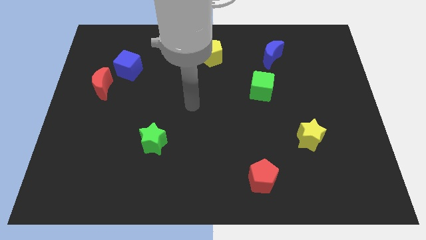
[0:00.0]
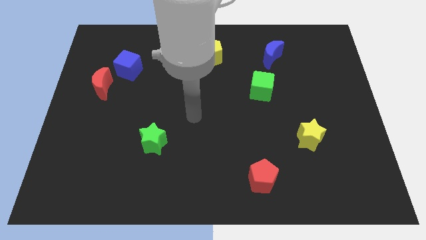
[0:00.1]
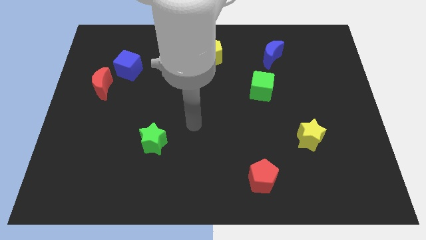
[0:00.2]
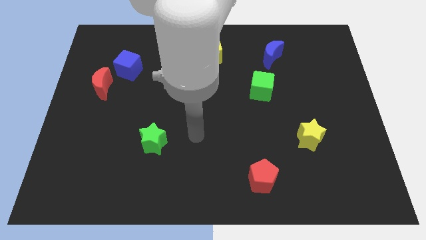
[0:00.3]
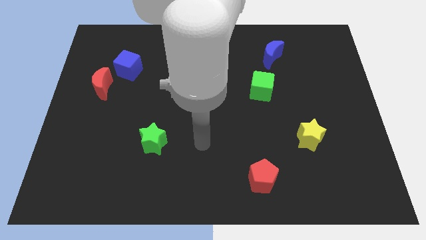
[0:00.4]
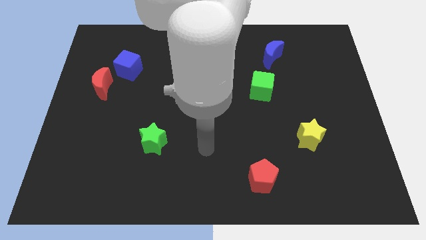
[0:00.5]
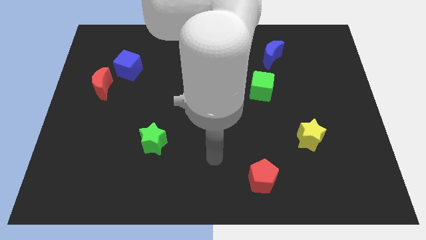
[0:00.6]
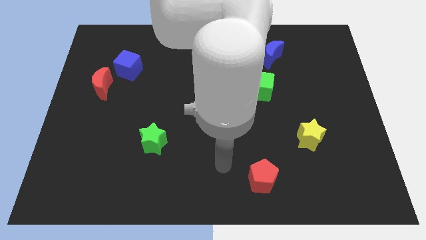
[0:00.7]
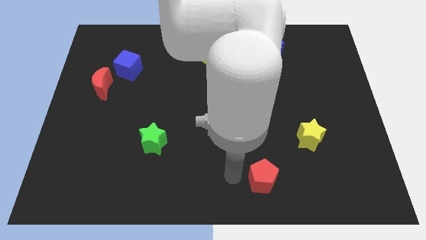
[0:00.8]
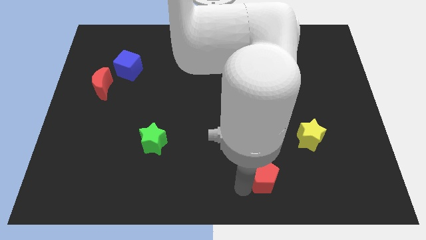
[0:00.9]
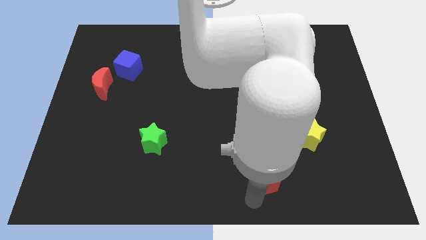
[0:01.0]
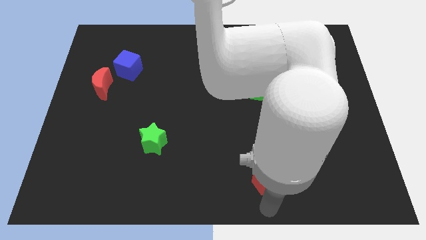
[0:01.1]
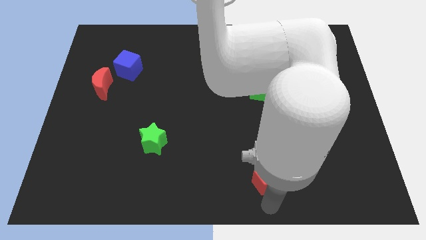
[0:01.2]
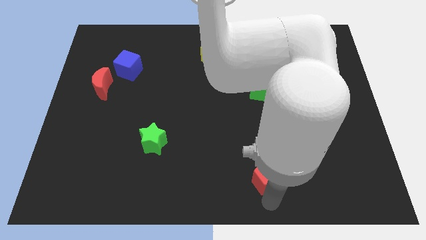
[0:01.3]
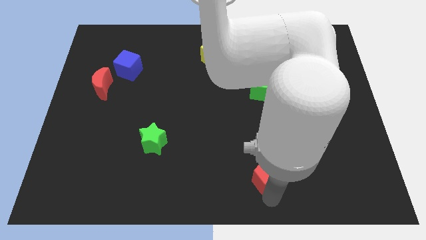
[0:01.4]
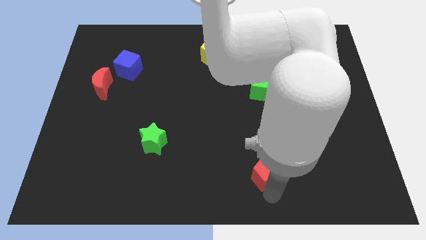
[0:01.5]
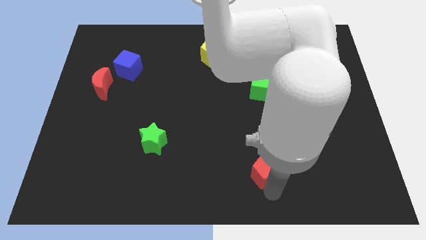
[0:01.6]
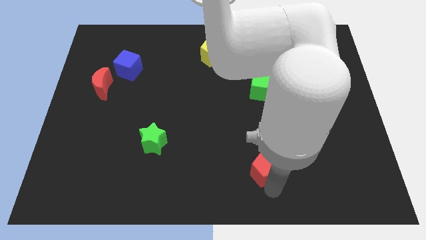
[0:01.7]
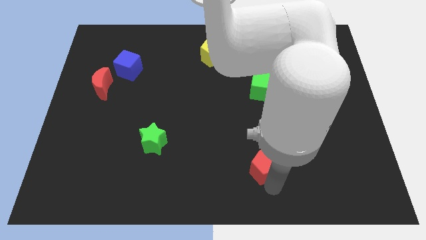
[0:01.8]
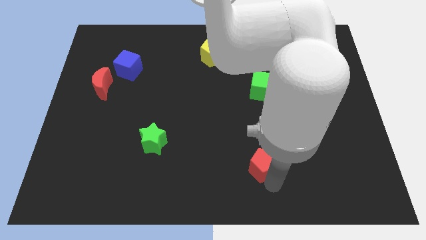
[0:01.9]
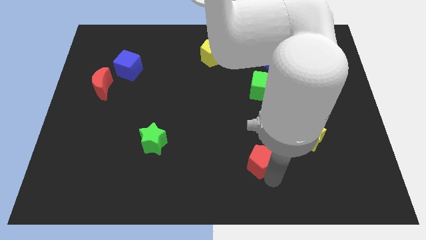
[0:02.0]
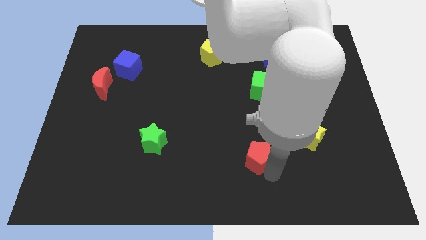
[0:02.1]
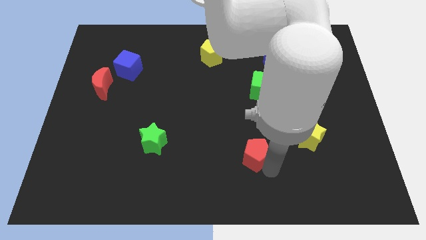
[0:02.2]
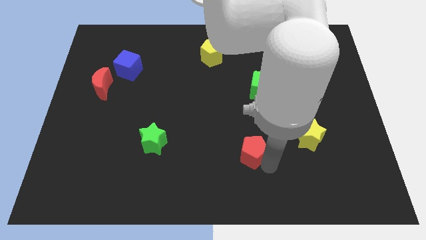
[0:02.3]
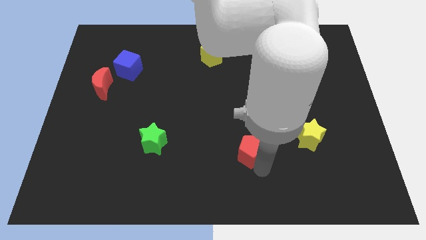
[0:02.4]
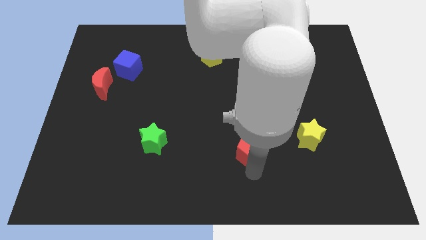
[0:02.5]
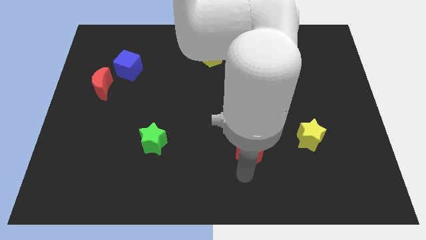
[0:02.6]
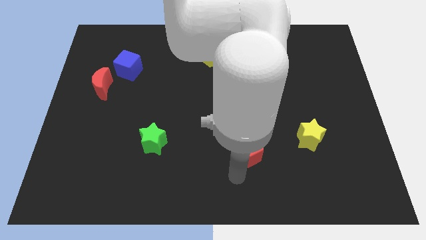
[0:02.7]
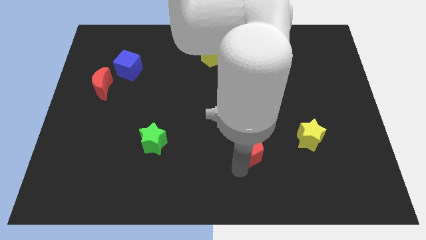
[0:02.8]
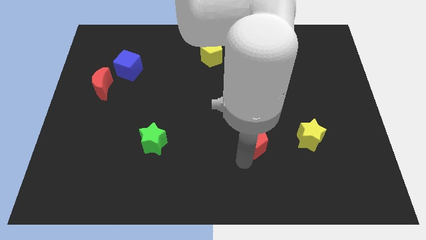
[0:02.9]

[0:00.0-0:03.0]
move the red pentagon a little bit up

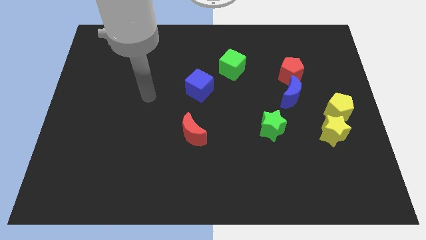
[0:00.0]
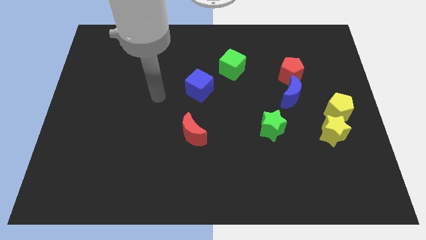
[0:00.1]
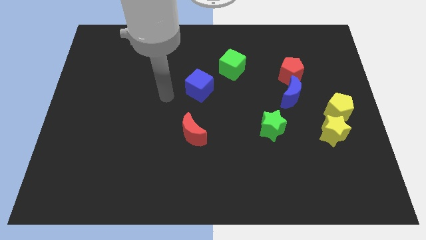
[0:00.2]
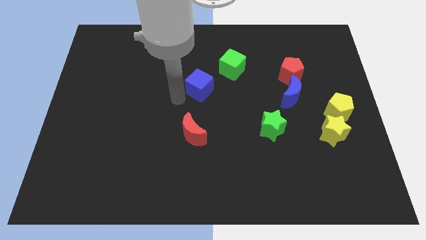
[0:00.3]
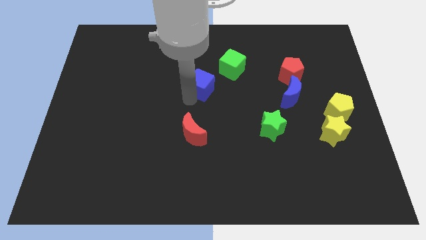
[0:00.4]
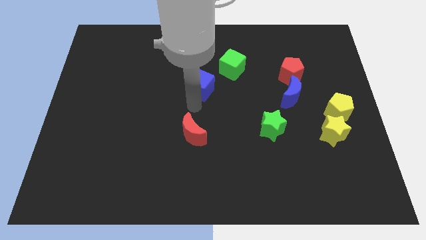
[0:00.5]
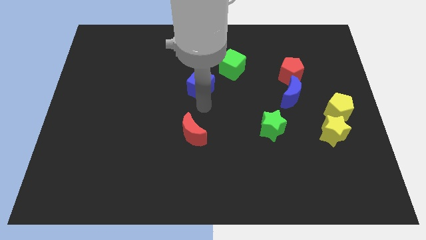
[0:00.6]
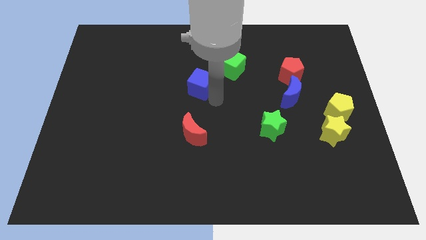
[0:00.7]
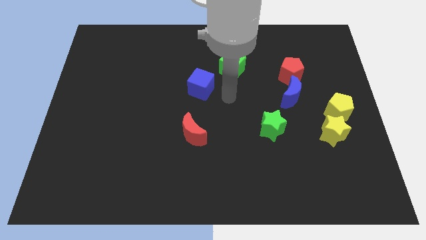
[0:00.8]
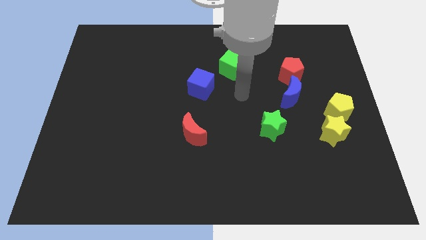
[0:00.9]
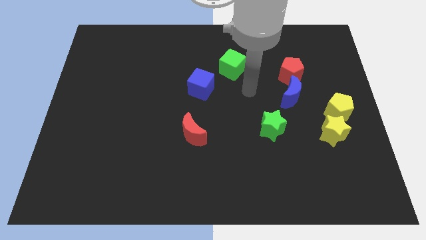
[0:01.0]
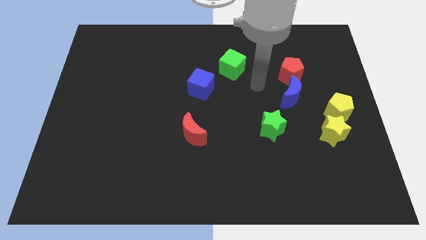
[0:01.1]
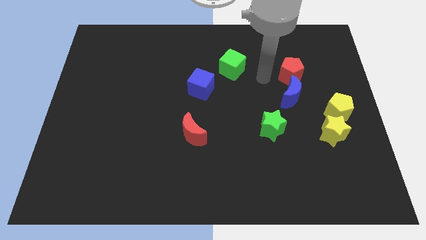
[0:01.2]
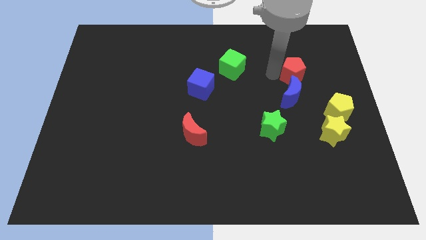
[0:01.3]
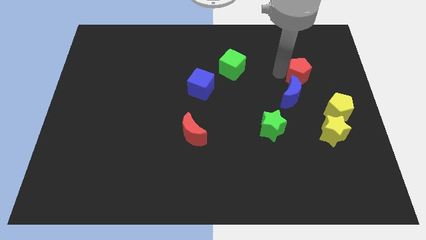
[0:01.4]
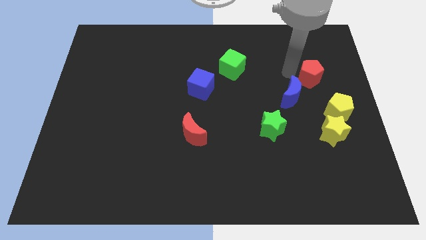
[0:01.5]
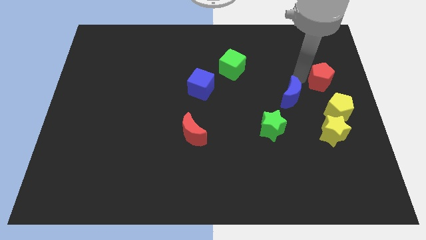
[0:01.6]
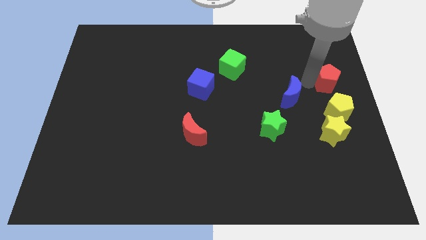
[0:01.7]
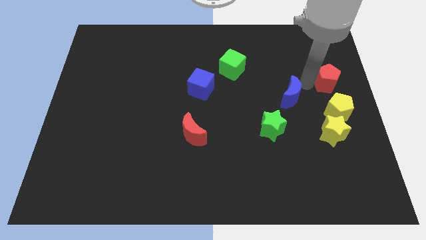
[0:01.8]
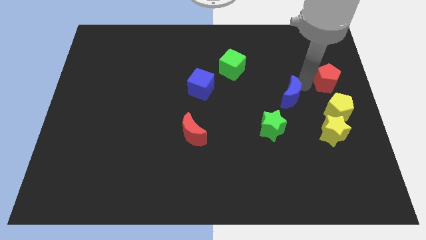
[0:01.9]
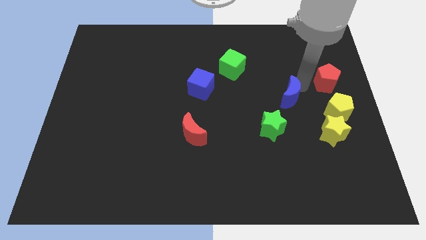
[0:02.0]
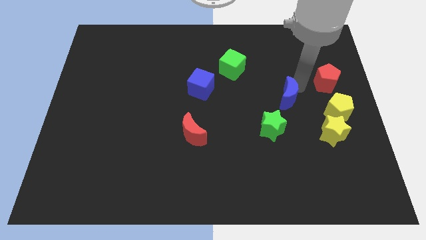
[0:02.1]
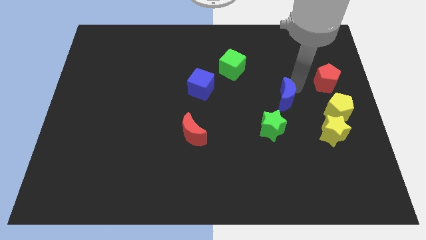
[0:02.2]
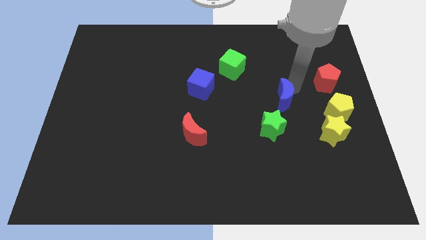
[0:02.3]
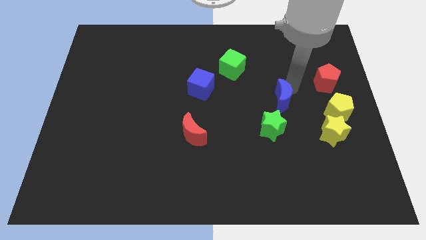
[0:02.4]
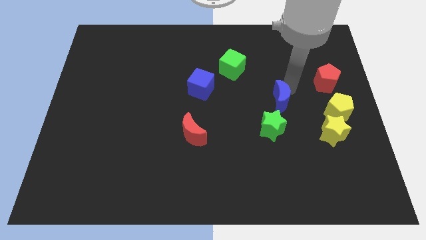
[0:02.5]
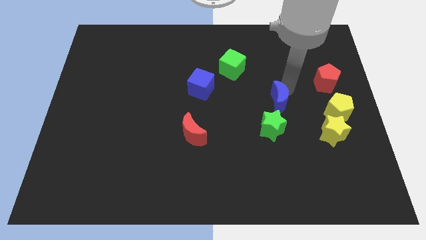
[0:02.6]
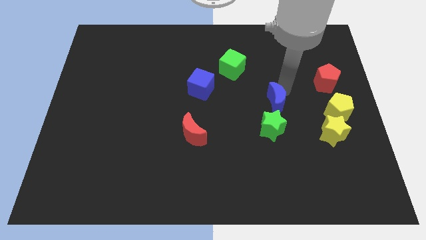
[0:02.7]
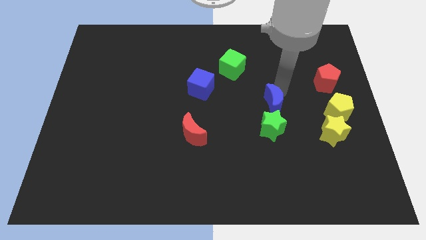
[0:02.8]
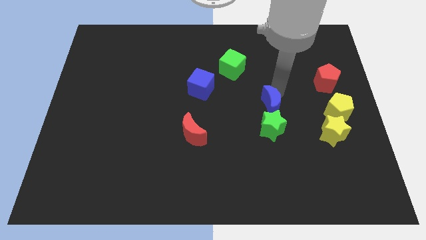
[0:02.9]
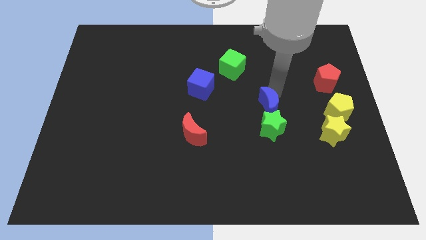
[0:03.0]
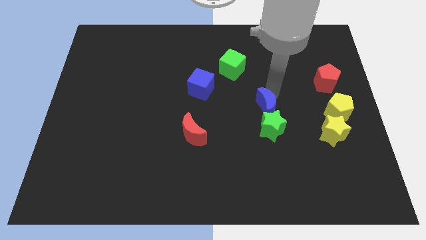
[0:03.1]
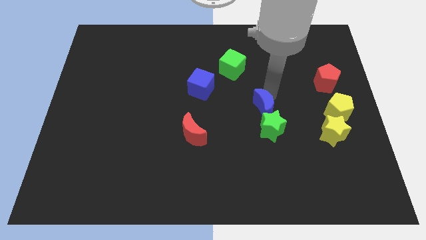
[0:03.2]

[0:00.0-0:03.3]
slide the blue moon down and then to the left slightly

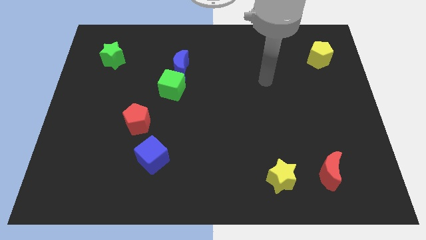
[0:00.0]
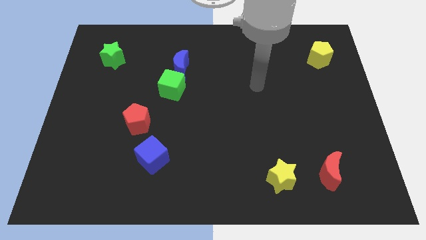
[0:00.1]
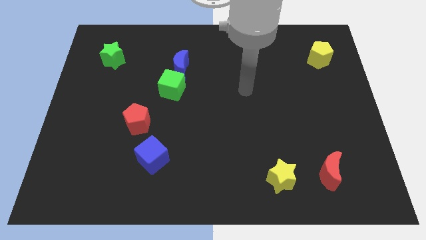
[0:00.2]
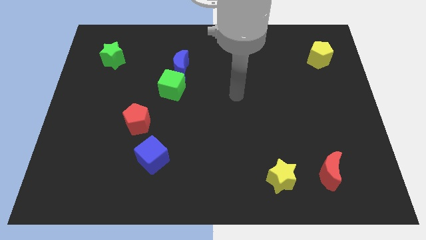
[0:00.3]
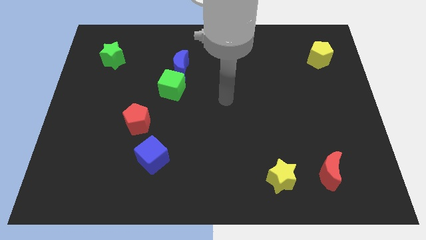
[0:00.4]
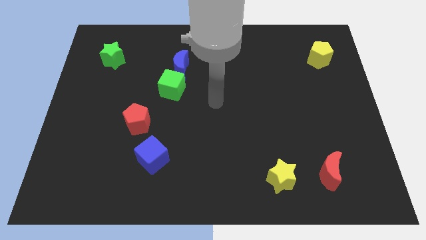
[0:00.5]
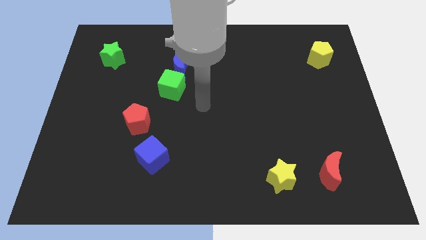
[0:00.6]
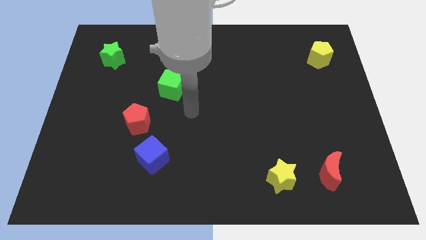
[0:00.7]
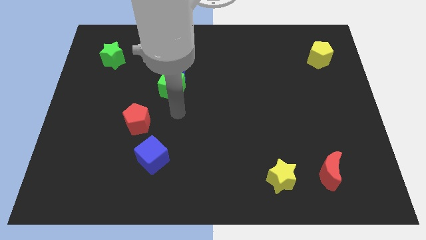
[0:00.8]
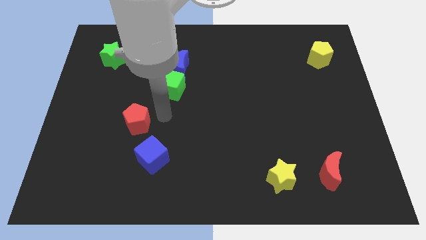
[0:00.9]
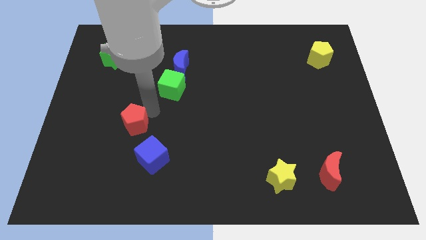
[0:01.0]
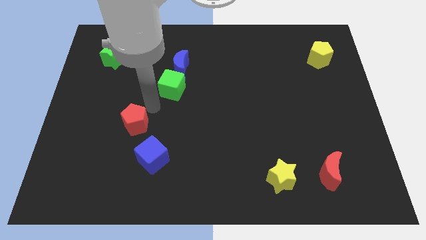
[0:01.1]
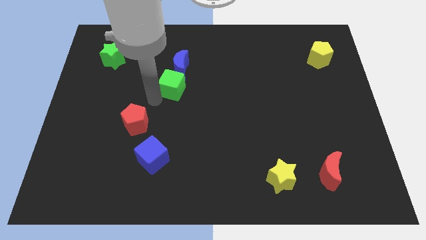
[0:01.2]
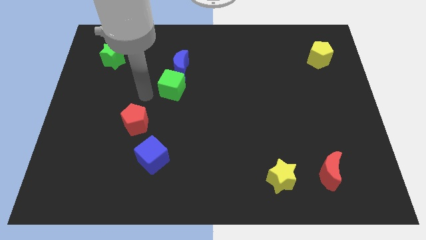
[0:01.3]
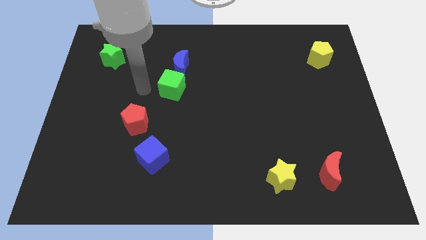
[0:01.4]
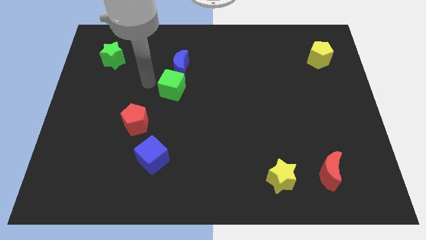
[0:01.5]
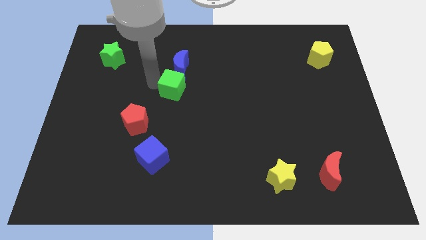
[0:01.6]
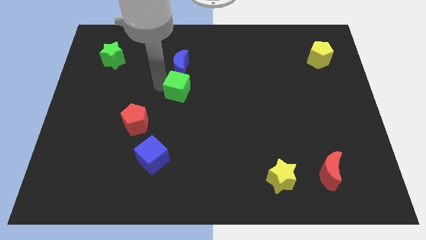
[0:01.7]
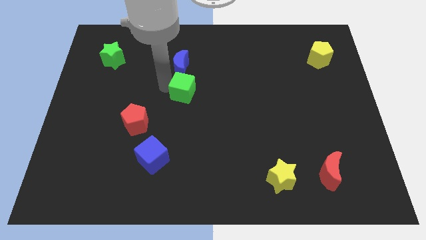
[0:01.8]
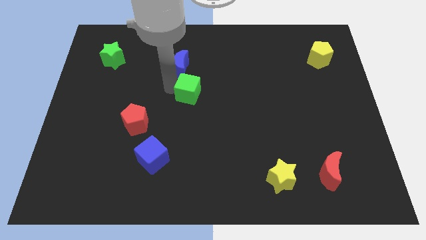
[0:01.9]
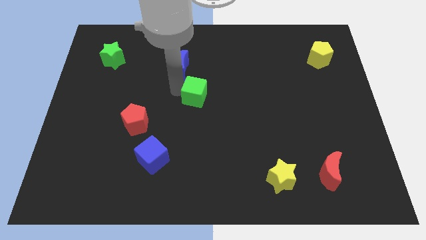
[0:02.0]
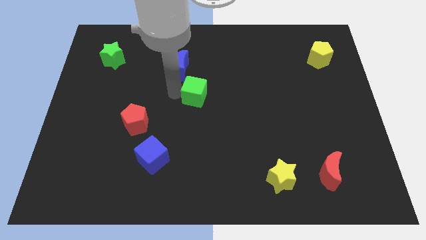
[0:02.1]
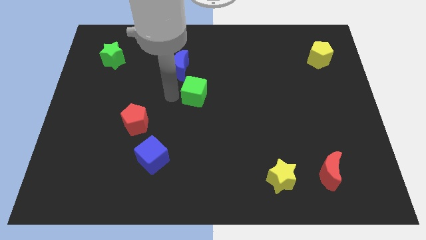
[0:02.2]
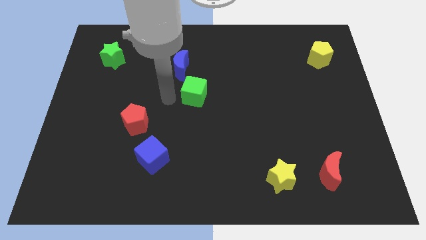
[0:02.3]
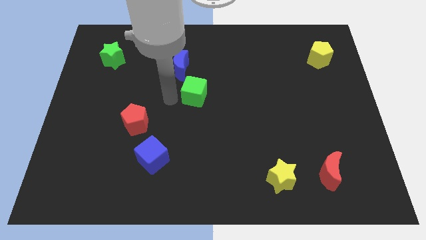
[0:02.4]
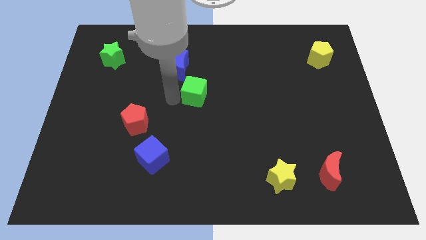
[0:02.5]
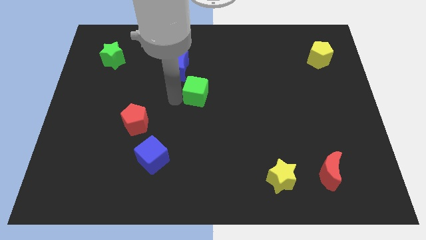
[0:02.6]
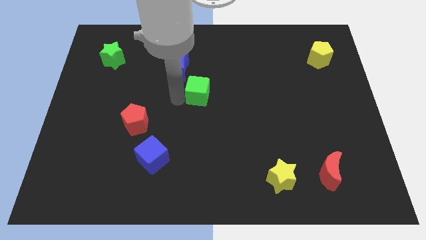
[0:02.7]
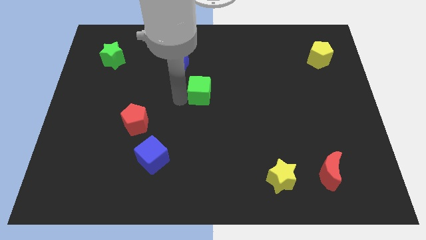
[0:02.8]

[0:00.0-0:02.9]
move the green cube a little right
